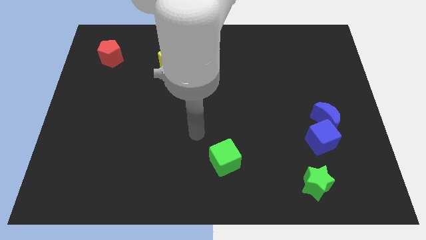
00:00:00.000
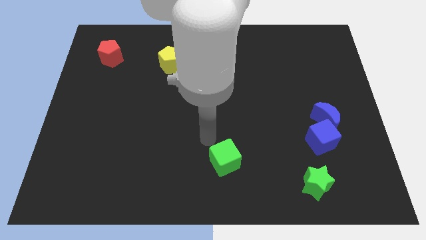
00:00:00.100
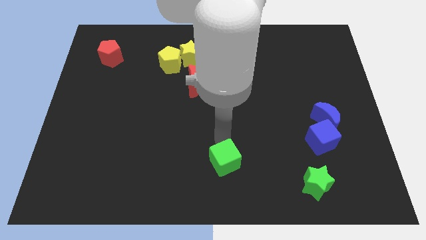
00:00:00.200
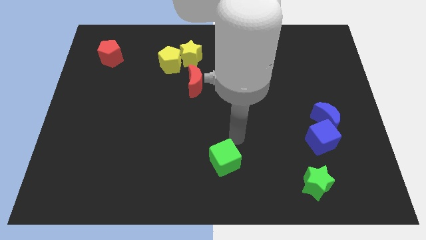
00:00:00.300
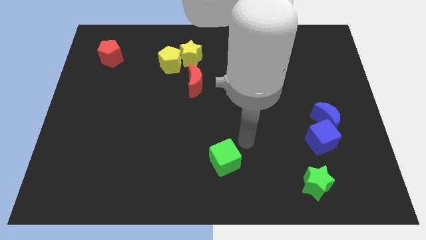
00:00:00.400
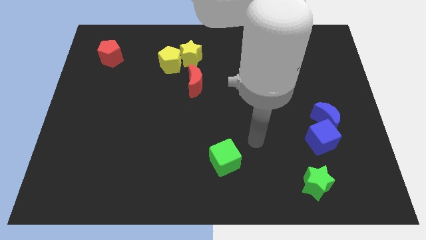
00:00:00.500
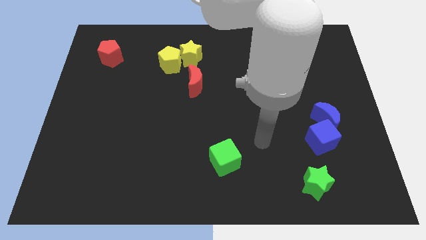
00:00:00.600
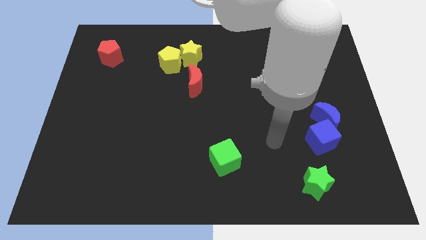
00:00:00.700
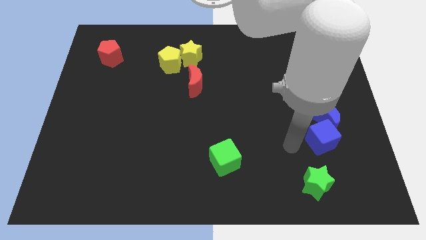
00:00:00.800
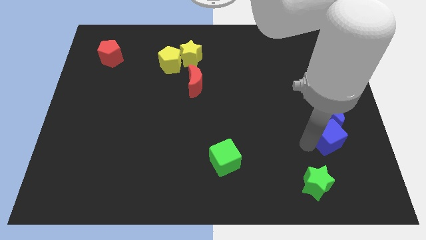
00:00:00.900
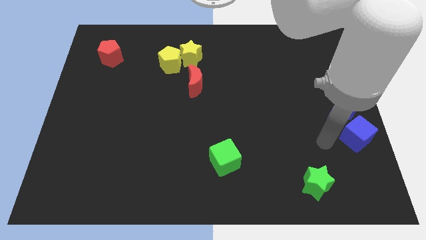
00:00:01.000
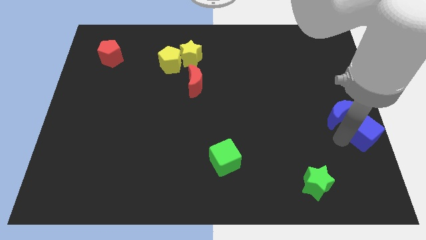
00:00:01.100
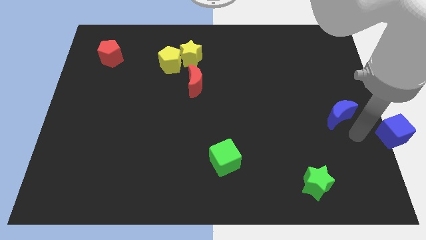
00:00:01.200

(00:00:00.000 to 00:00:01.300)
separate the blue moon from the blue cube

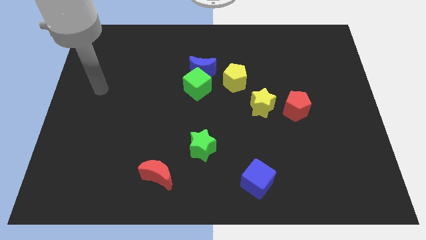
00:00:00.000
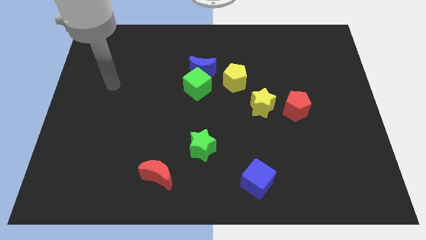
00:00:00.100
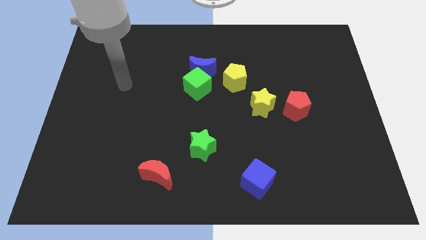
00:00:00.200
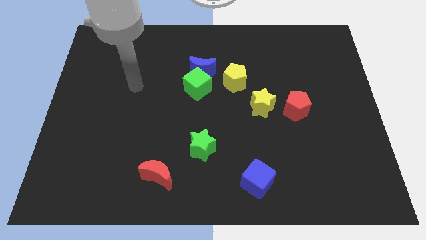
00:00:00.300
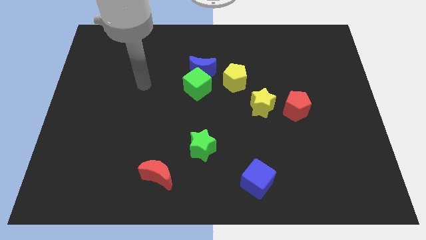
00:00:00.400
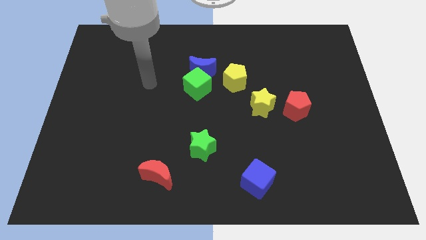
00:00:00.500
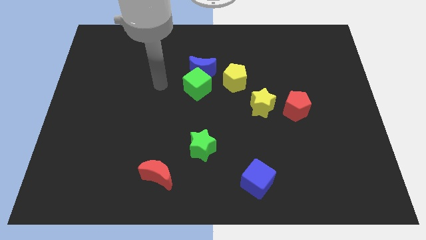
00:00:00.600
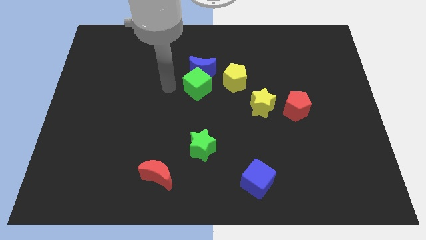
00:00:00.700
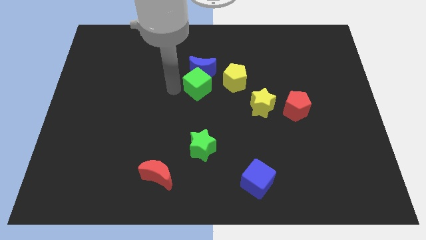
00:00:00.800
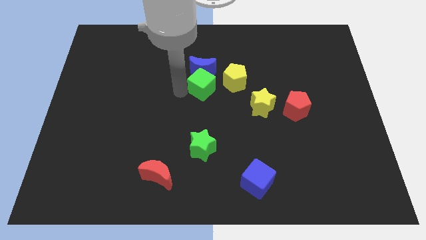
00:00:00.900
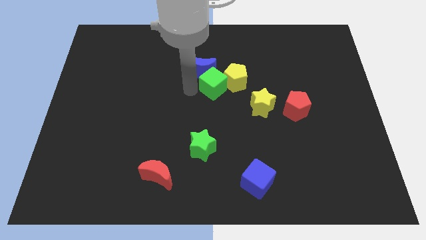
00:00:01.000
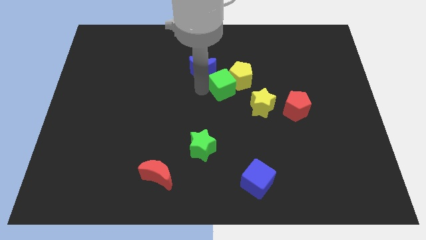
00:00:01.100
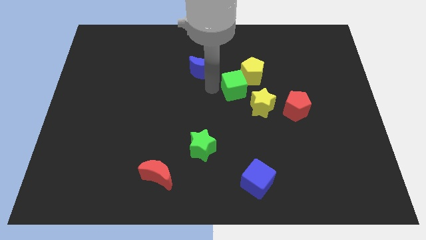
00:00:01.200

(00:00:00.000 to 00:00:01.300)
separate the blue moon from the green cube and yellow pentagon

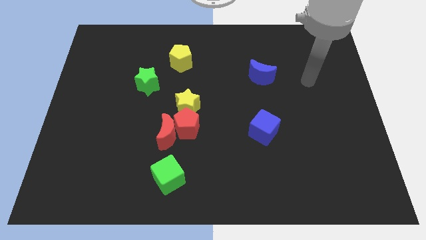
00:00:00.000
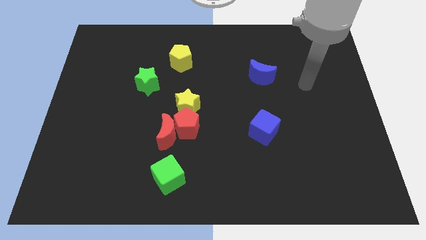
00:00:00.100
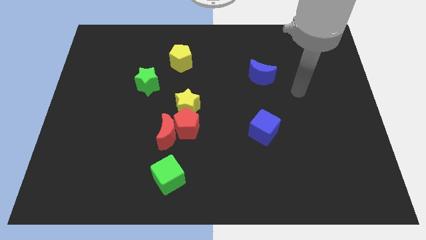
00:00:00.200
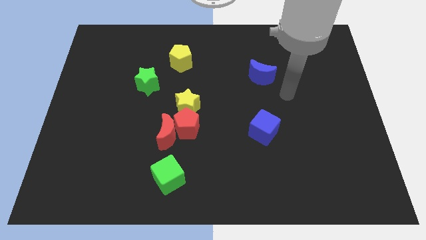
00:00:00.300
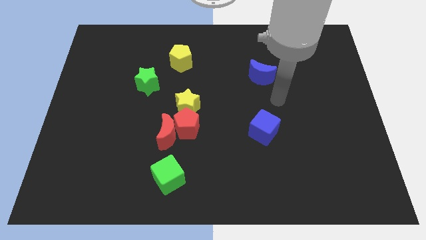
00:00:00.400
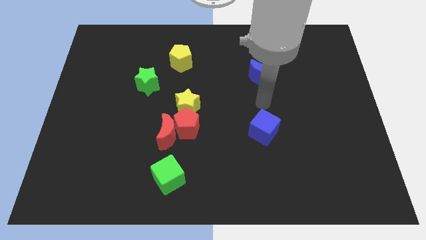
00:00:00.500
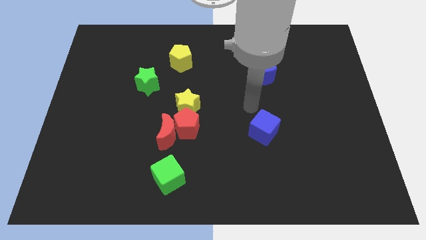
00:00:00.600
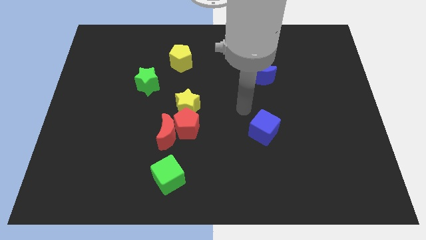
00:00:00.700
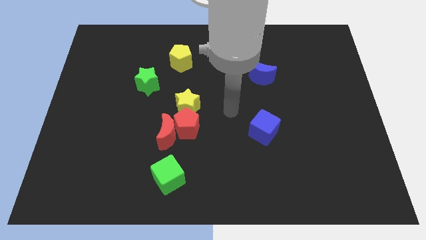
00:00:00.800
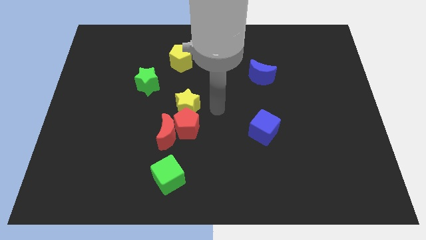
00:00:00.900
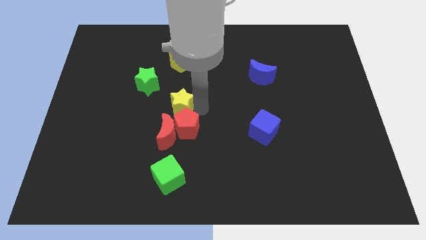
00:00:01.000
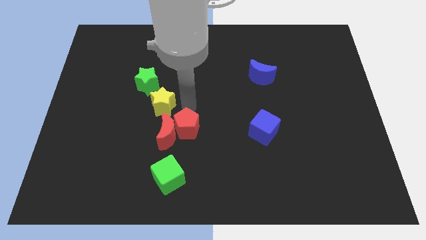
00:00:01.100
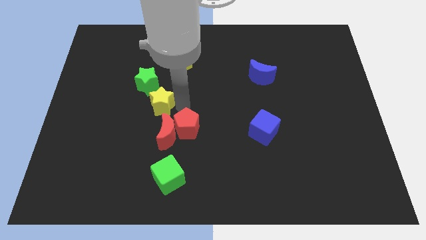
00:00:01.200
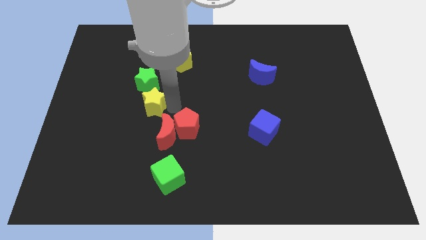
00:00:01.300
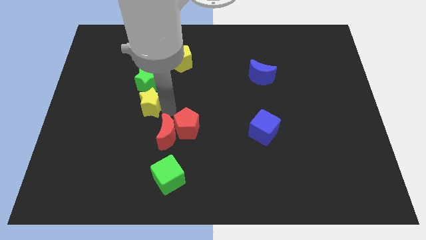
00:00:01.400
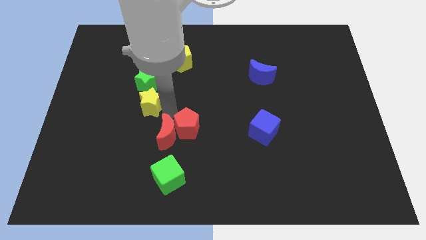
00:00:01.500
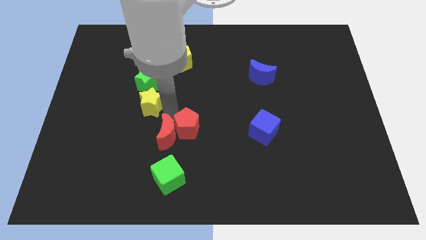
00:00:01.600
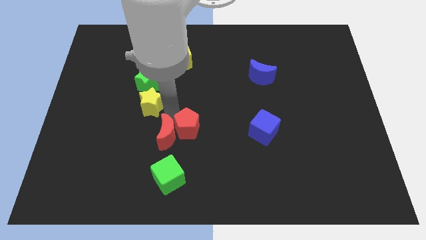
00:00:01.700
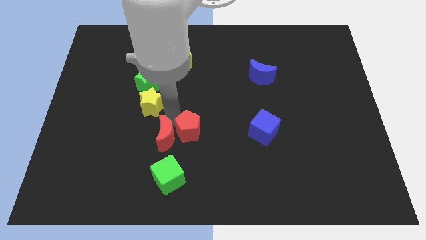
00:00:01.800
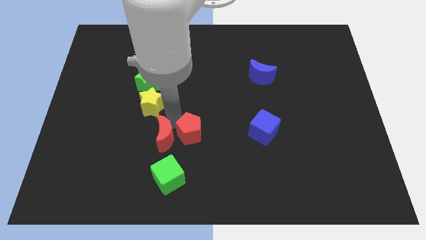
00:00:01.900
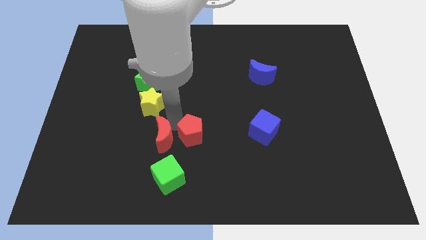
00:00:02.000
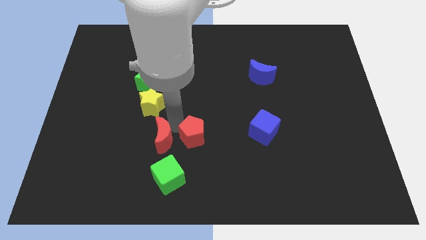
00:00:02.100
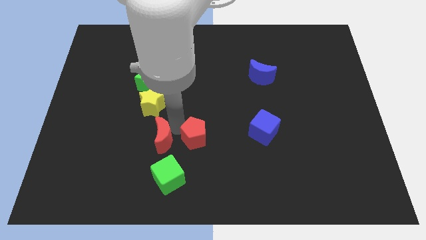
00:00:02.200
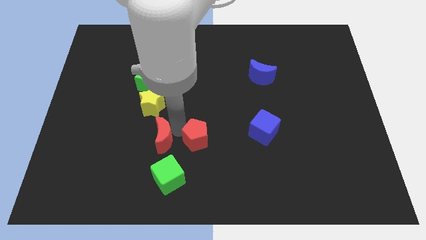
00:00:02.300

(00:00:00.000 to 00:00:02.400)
pull the red pentagon apart from the red moon and yellow star

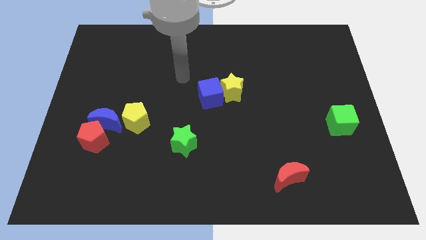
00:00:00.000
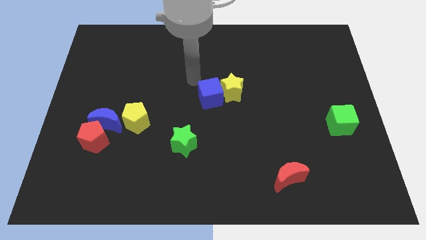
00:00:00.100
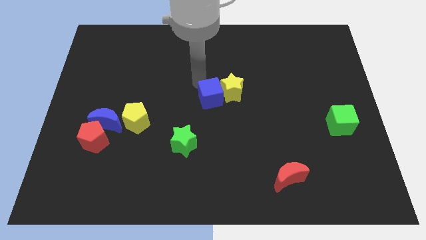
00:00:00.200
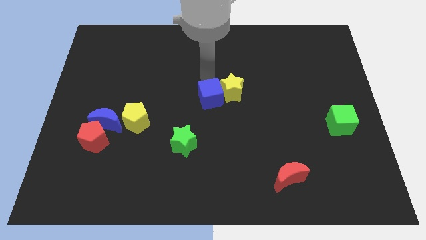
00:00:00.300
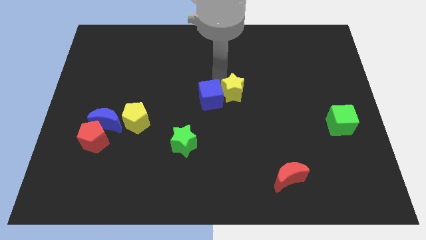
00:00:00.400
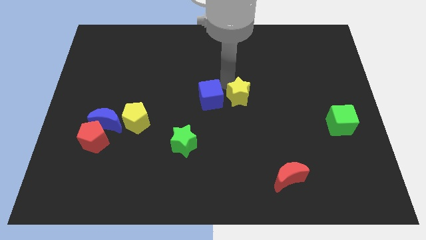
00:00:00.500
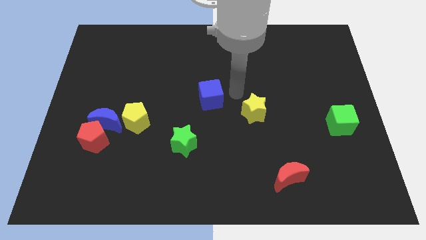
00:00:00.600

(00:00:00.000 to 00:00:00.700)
separate the blue cube from the yellow star

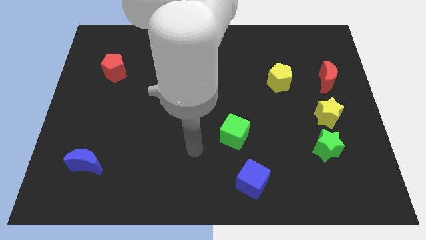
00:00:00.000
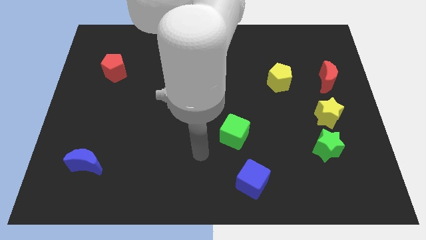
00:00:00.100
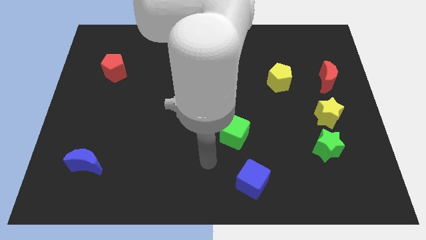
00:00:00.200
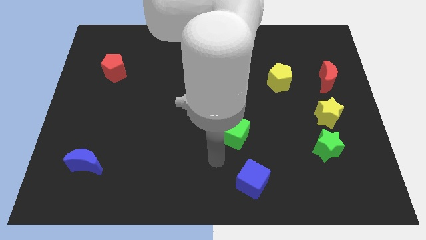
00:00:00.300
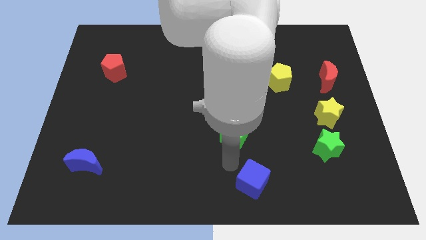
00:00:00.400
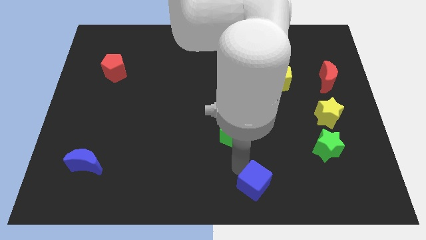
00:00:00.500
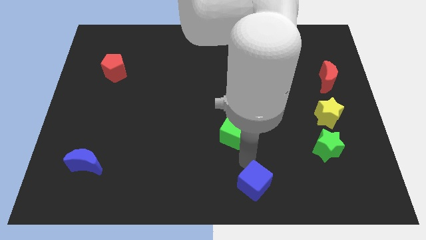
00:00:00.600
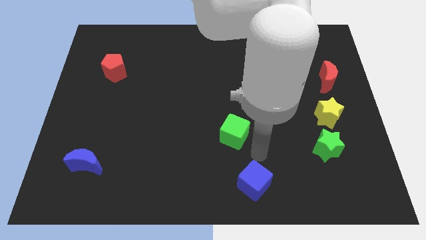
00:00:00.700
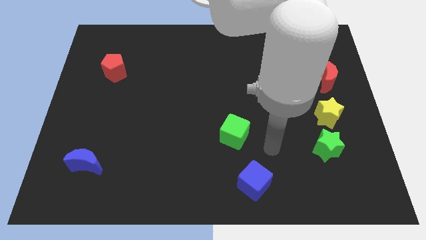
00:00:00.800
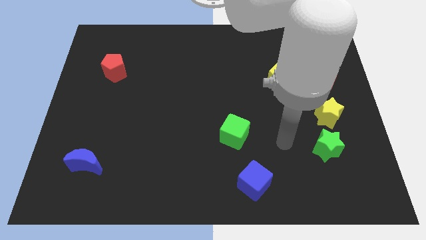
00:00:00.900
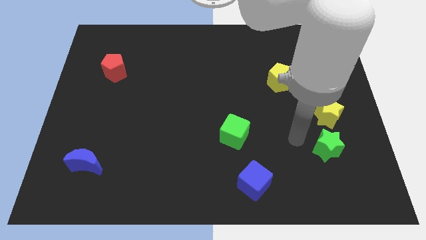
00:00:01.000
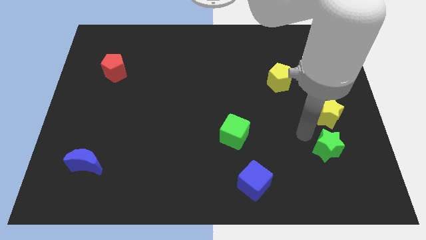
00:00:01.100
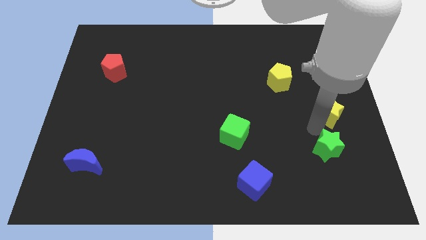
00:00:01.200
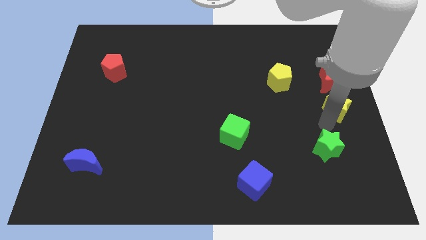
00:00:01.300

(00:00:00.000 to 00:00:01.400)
pull the green star apart from the yellow star

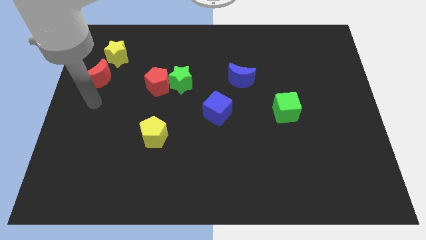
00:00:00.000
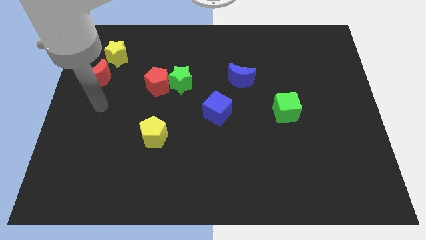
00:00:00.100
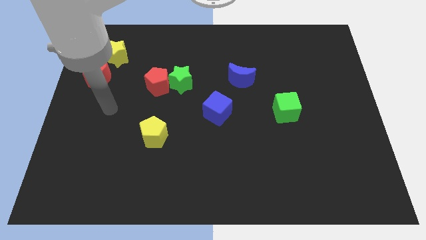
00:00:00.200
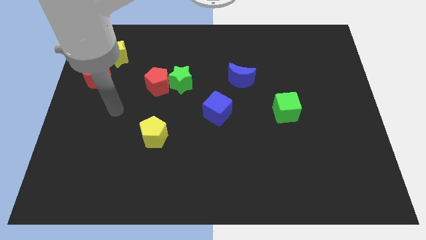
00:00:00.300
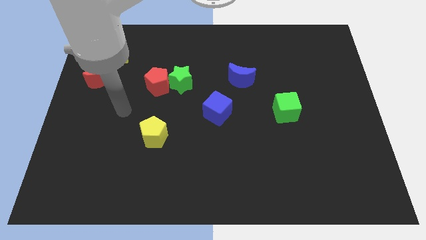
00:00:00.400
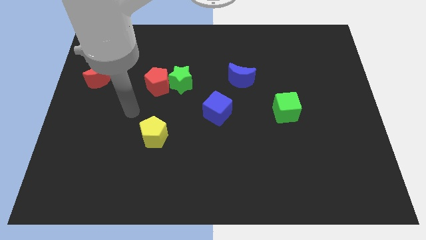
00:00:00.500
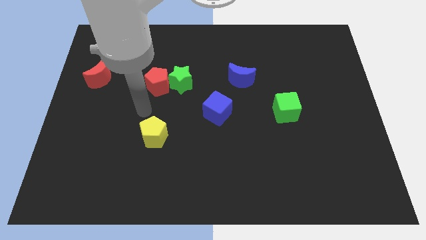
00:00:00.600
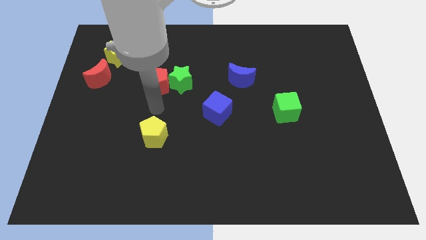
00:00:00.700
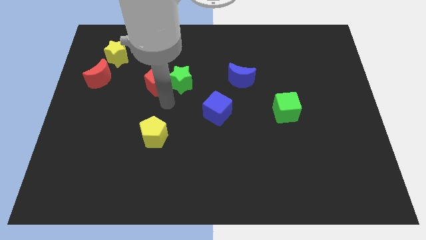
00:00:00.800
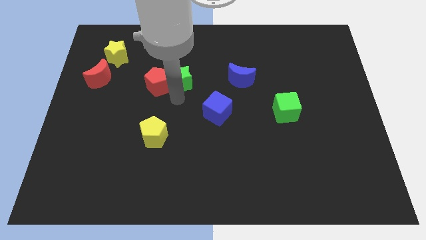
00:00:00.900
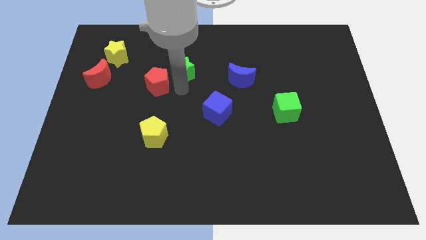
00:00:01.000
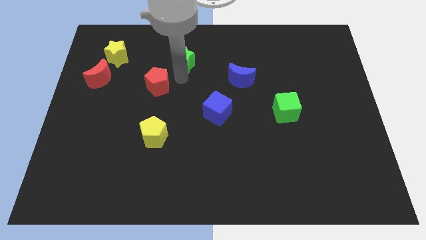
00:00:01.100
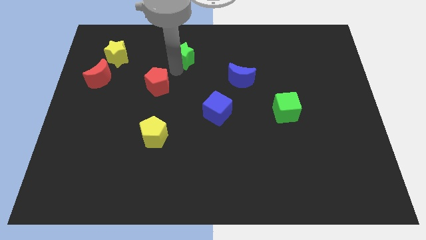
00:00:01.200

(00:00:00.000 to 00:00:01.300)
separate the red pentagon from the green star

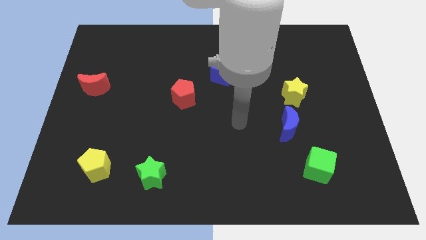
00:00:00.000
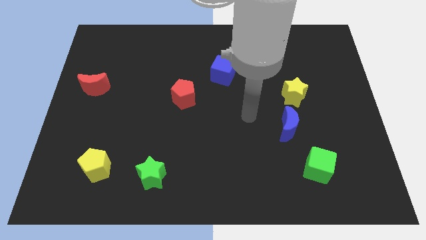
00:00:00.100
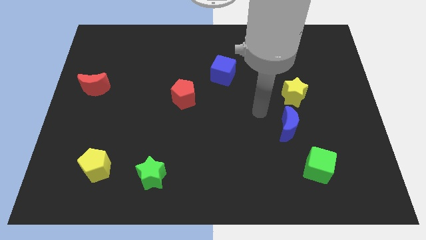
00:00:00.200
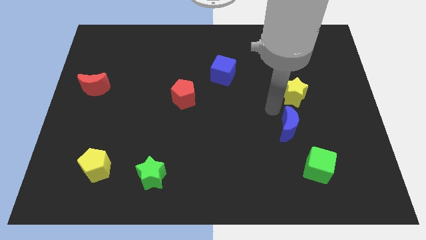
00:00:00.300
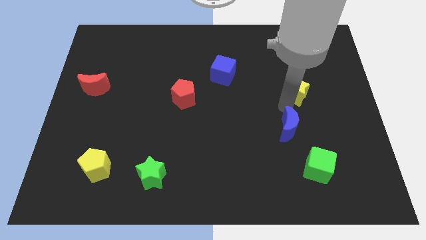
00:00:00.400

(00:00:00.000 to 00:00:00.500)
move the blue moon away from the yellow star

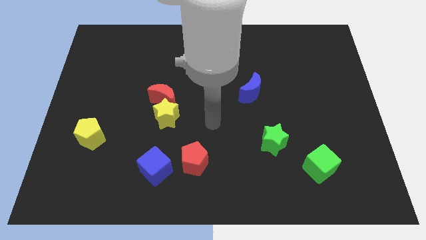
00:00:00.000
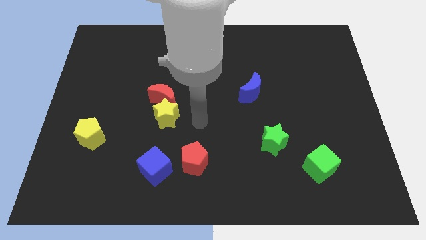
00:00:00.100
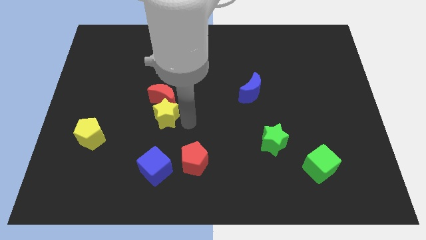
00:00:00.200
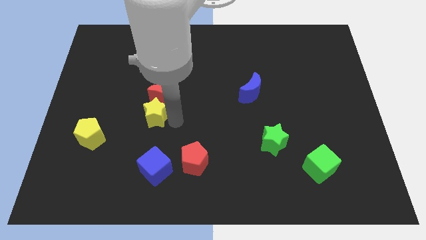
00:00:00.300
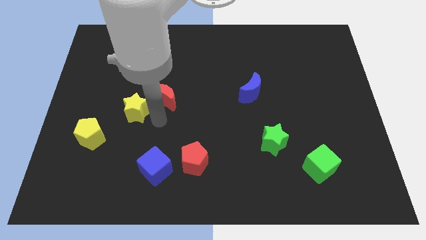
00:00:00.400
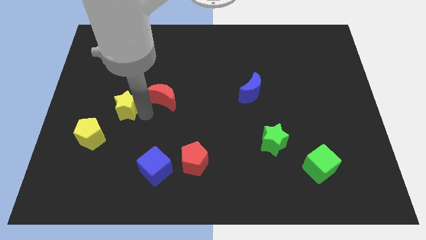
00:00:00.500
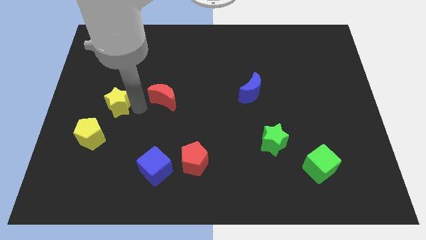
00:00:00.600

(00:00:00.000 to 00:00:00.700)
separate the red moon from the yellow star
